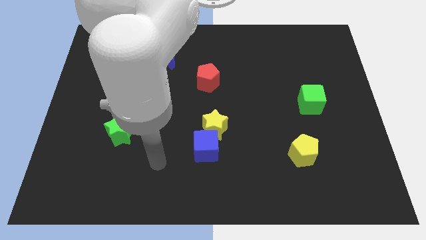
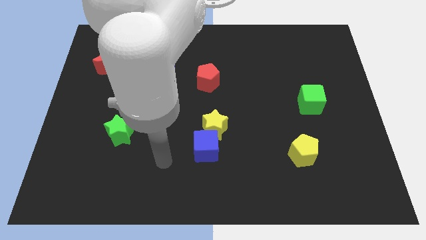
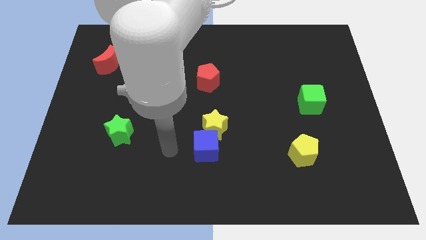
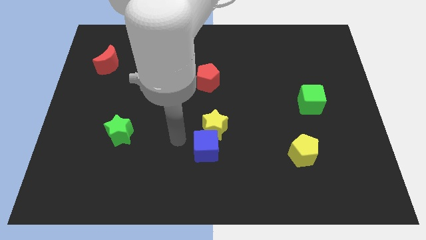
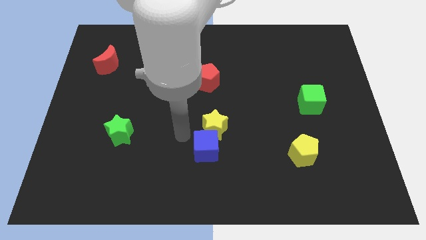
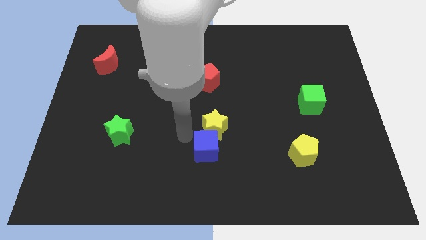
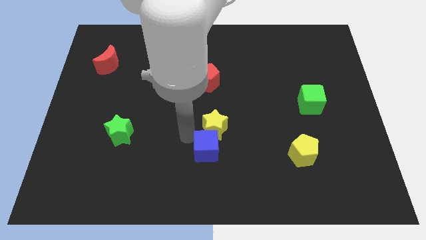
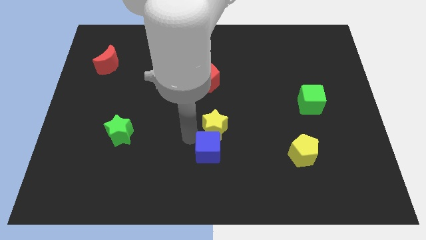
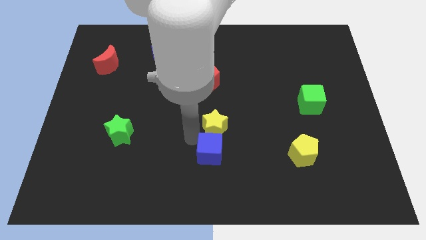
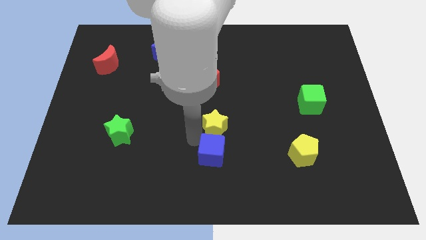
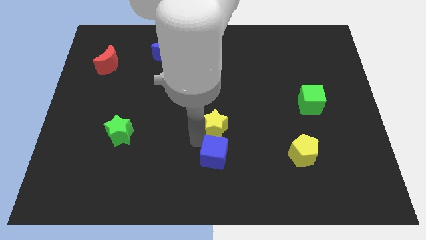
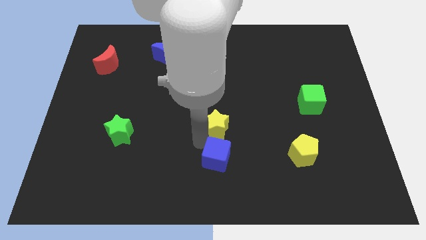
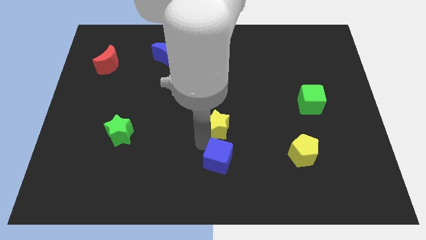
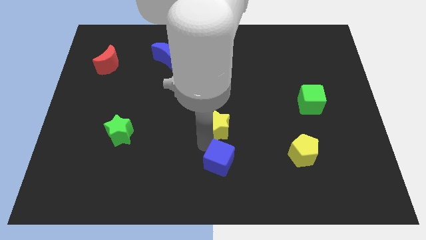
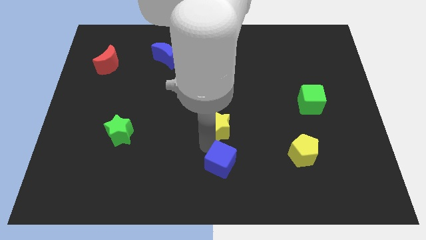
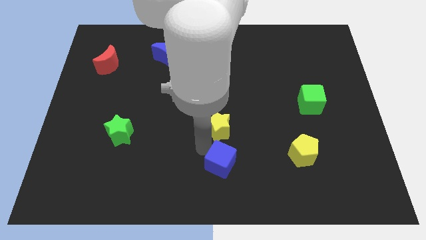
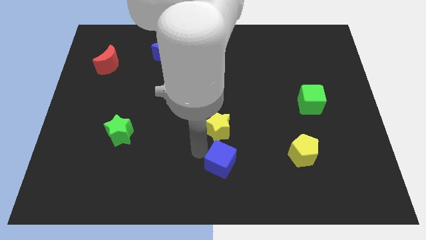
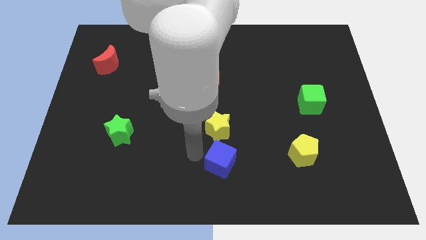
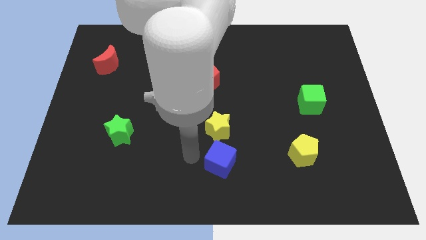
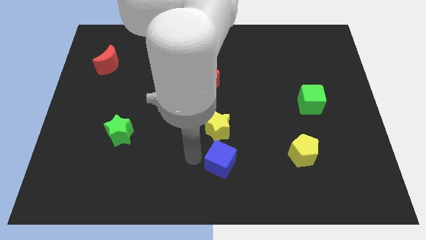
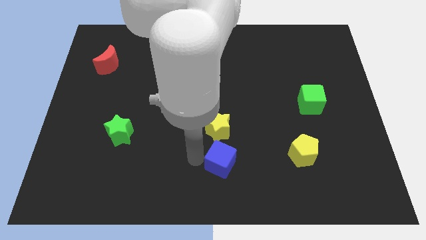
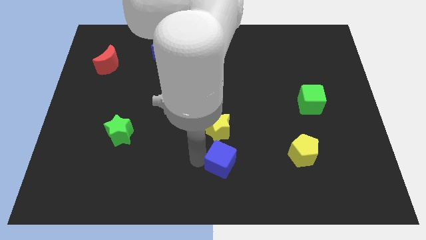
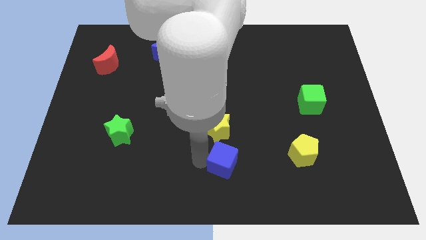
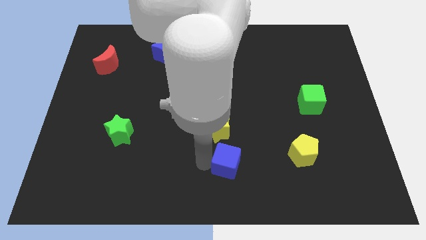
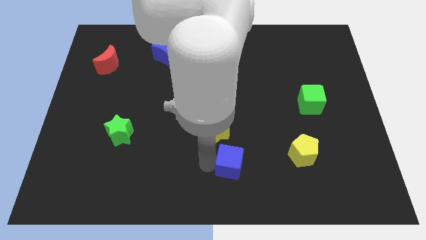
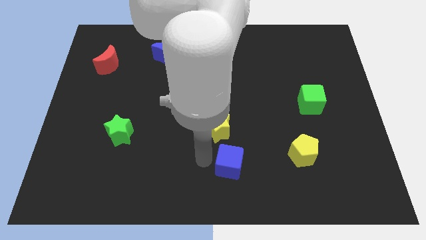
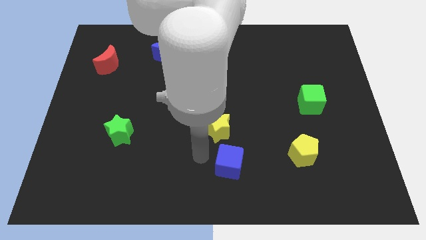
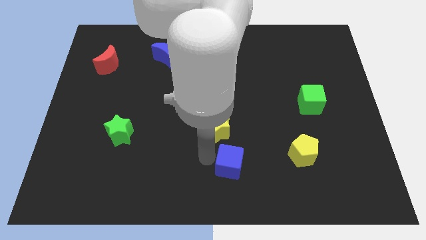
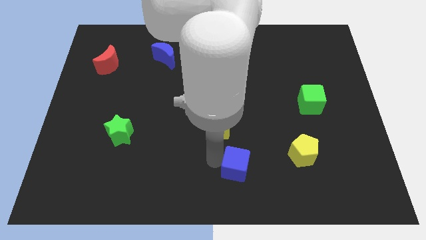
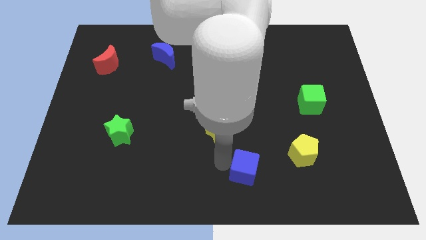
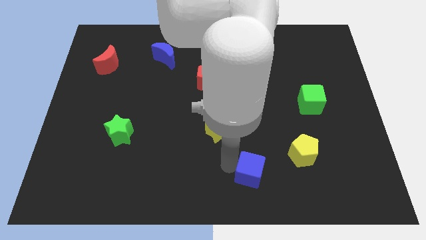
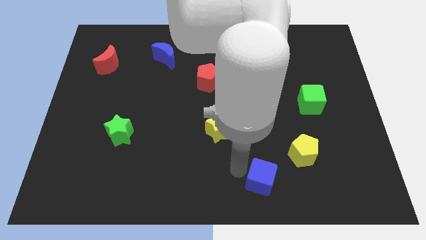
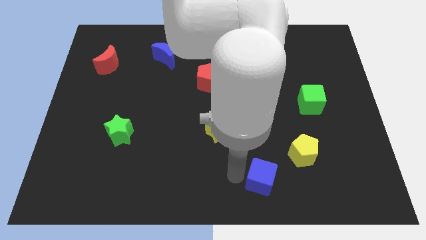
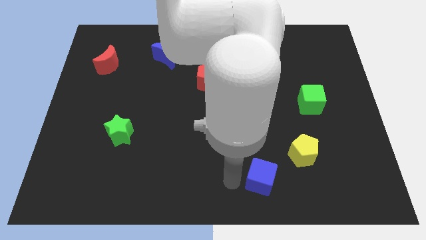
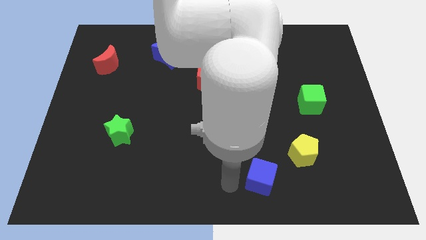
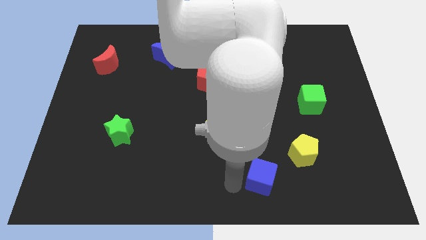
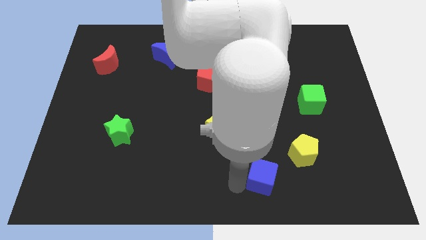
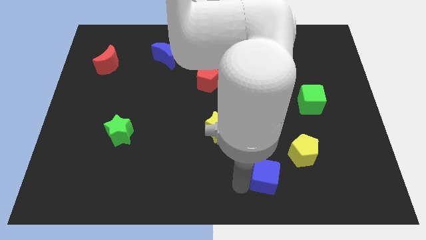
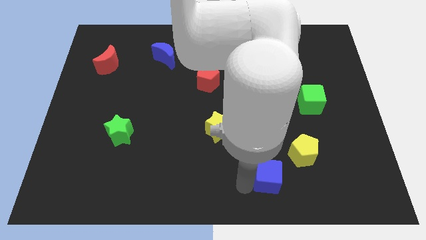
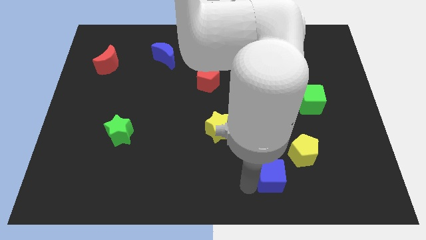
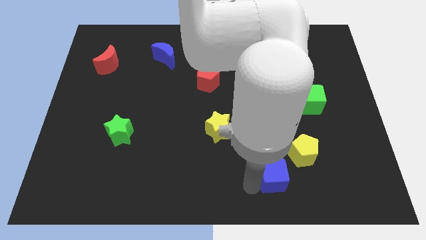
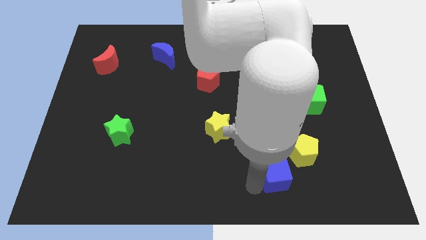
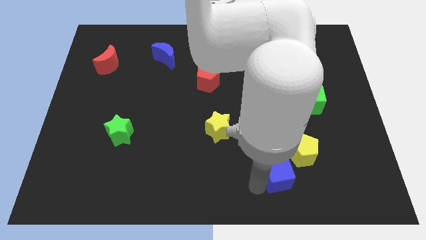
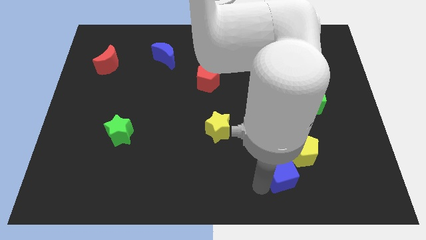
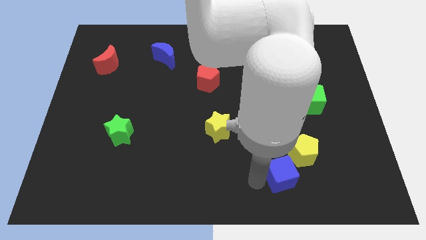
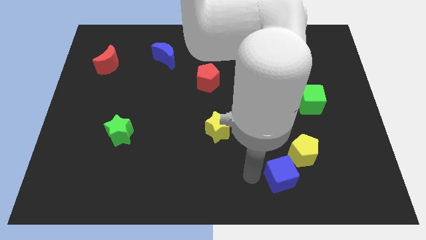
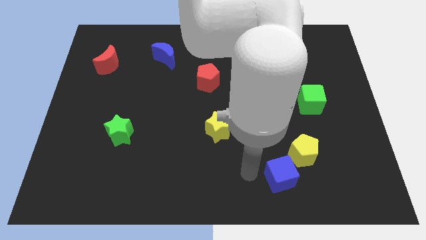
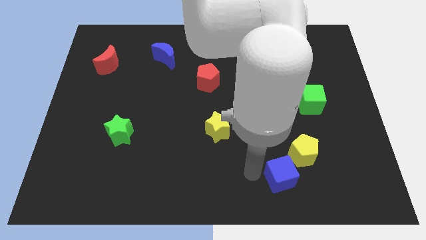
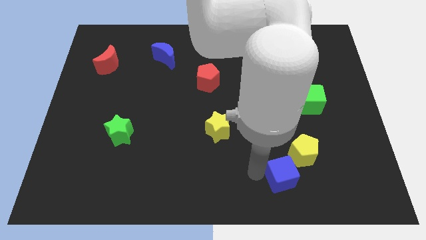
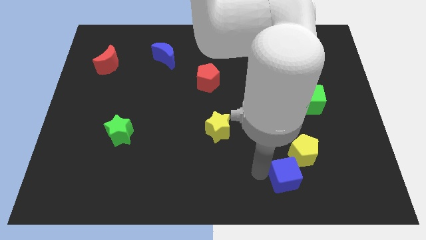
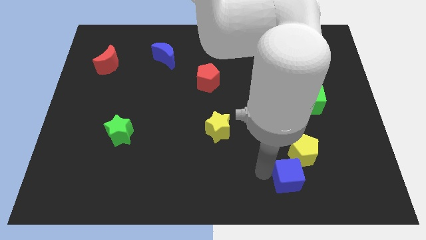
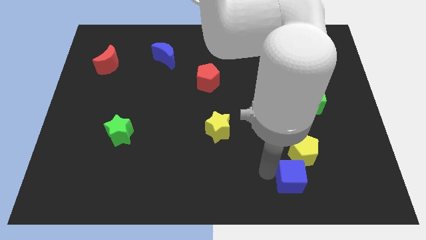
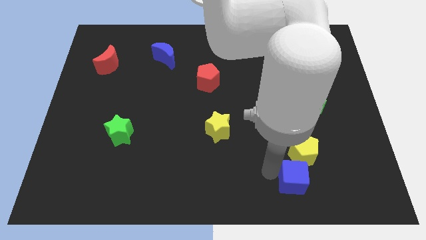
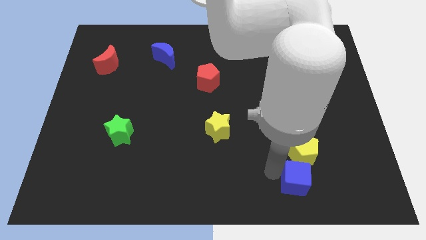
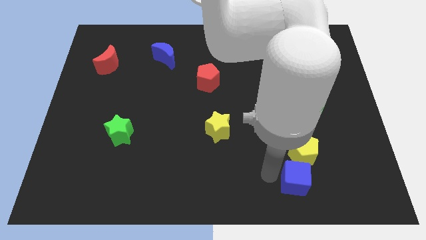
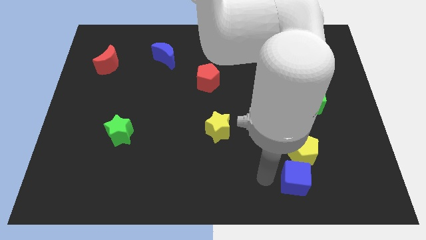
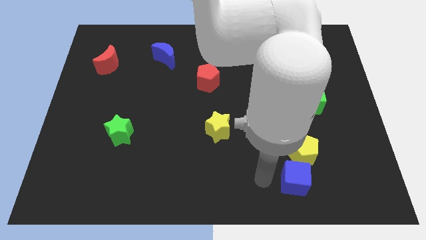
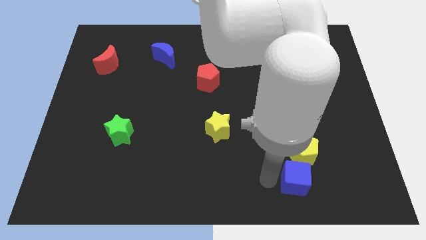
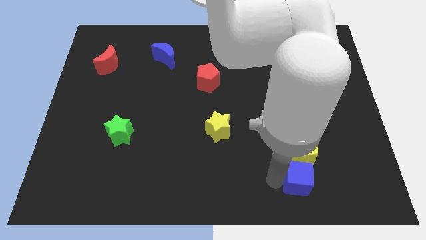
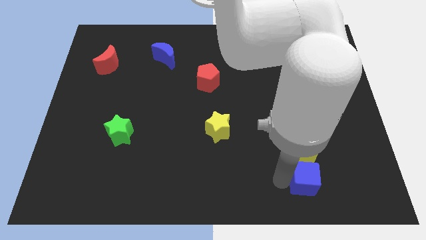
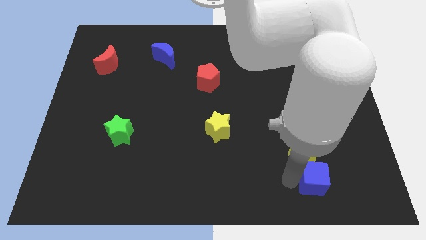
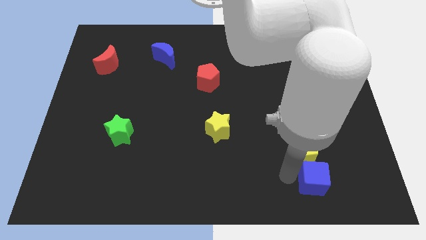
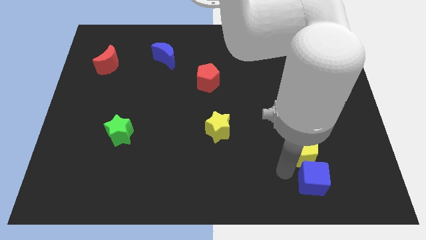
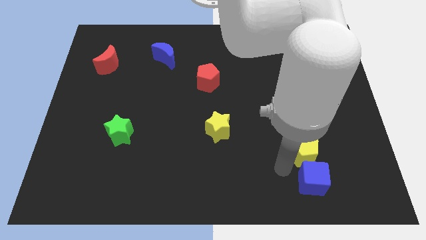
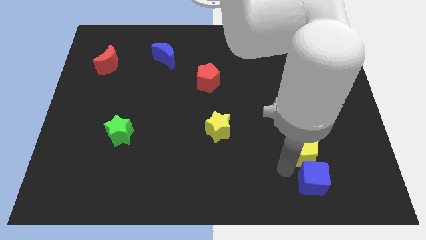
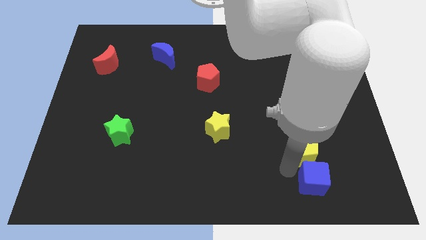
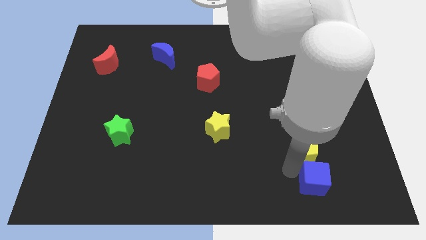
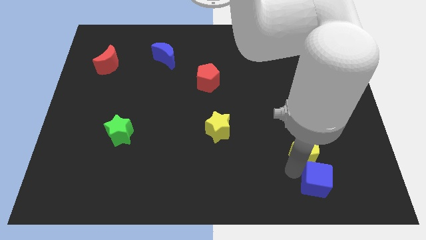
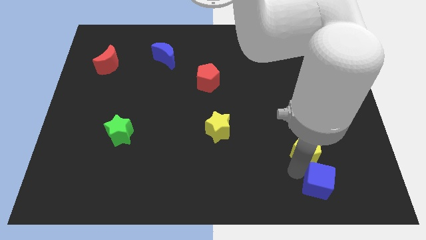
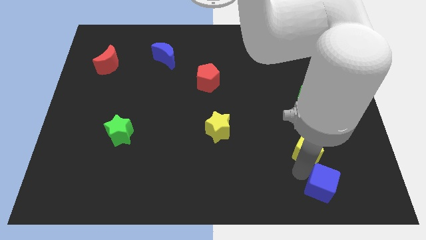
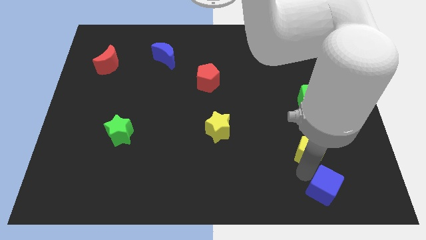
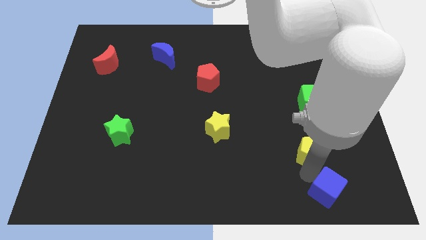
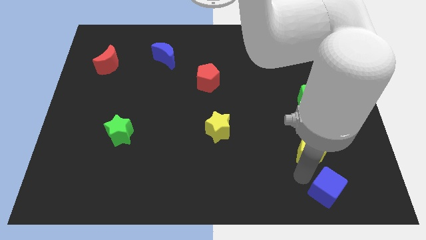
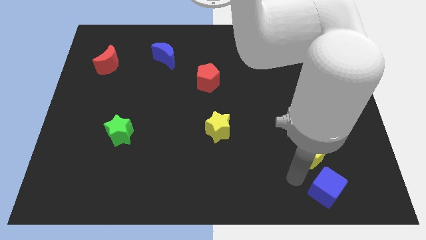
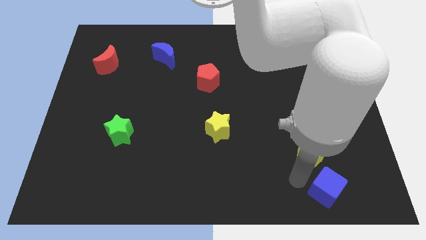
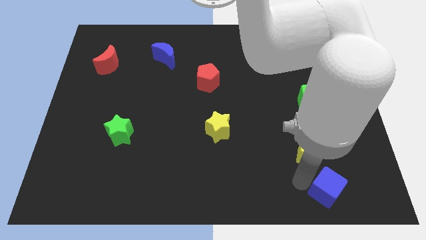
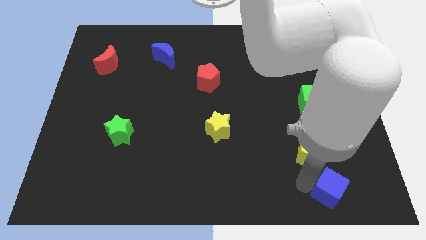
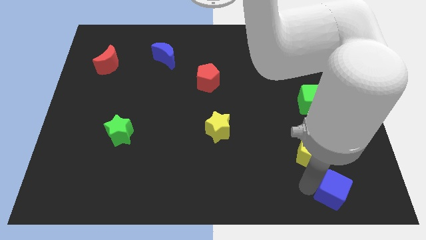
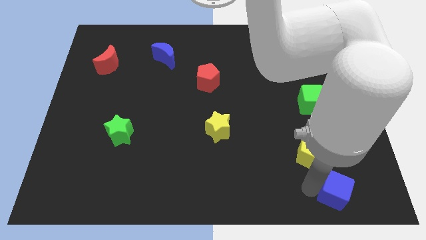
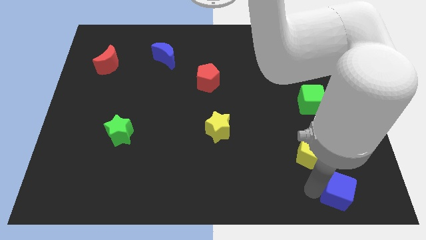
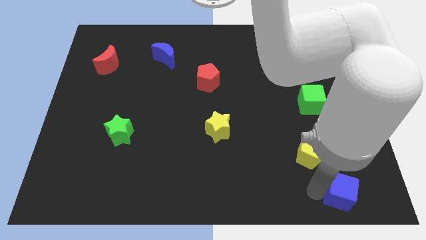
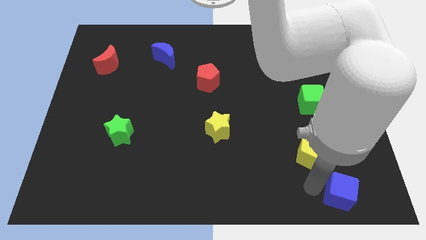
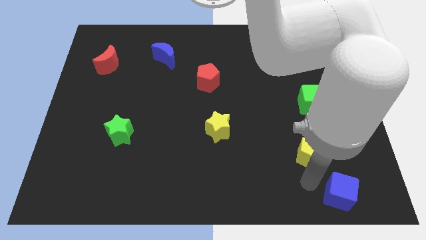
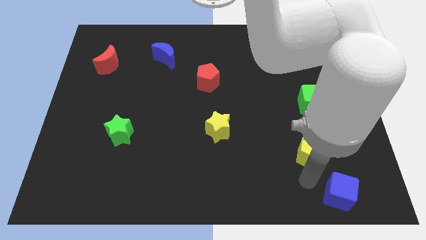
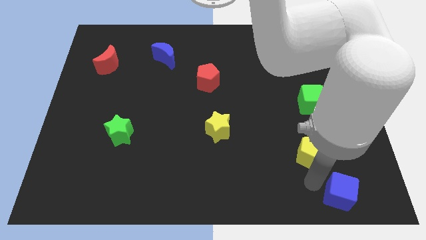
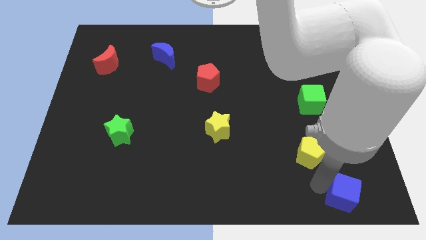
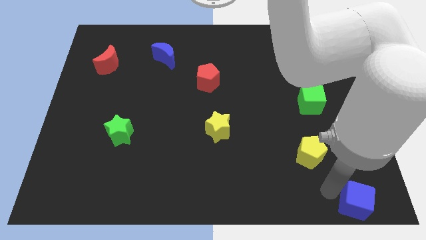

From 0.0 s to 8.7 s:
move the blue cube to the bottom right corner
